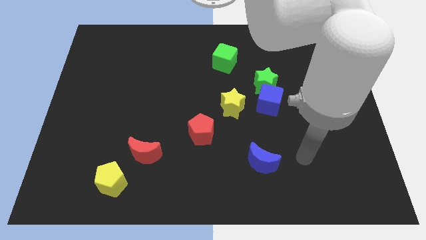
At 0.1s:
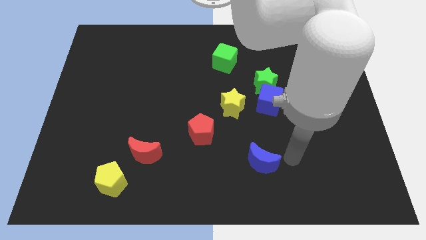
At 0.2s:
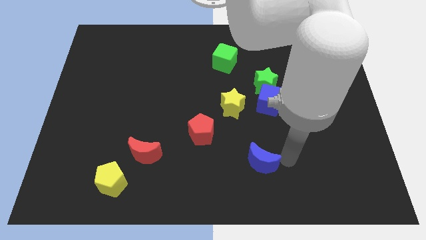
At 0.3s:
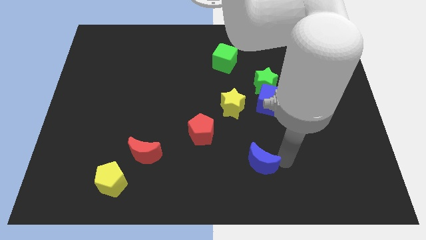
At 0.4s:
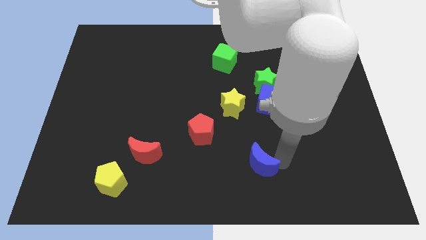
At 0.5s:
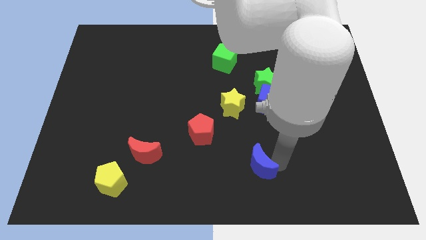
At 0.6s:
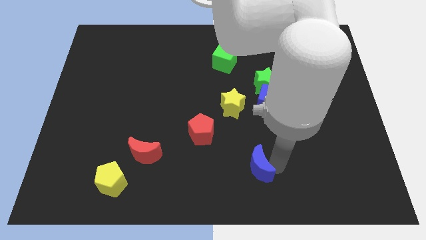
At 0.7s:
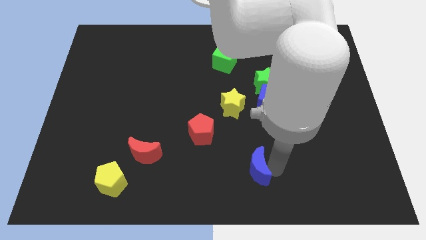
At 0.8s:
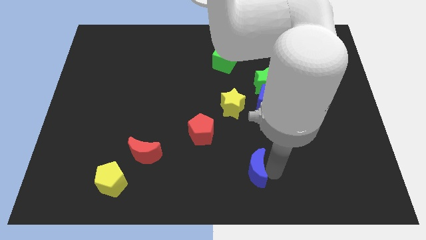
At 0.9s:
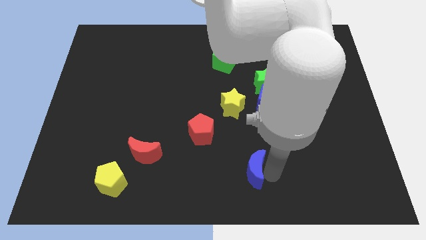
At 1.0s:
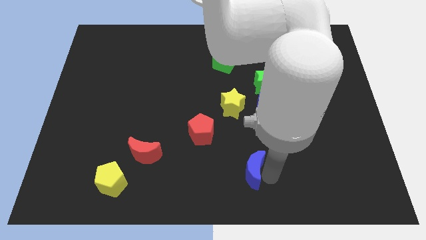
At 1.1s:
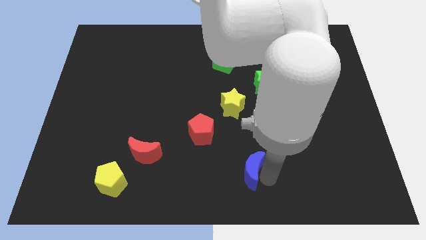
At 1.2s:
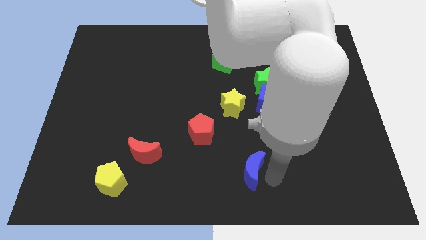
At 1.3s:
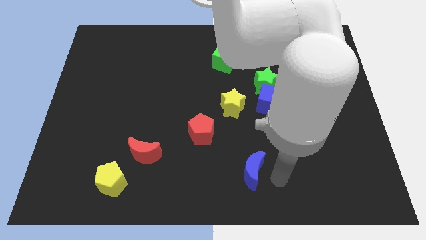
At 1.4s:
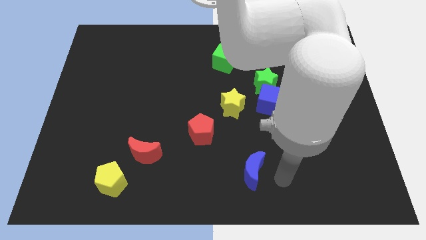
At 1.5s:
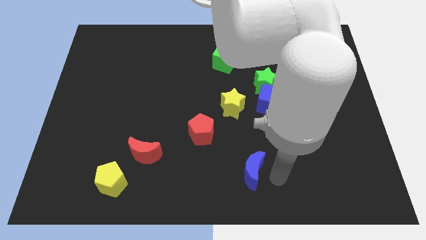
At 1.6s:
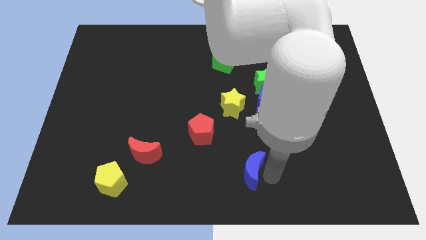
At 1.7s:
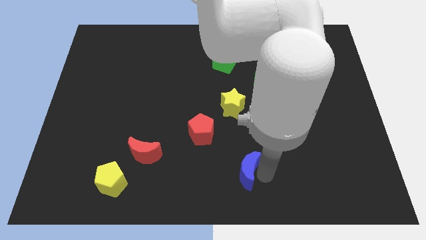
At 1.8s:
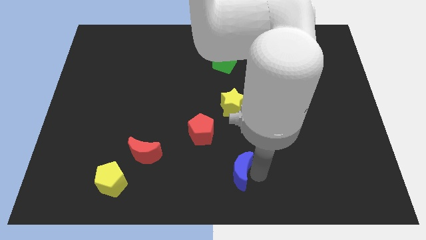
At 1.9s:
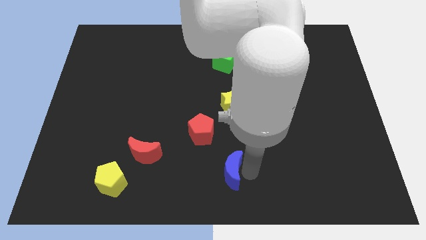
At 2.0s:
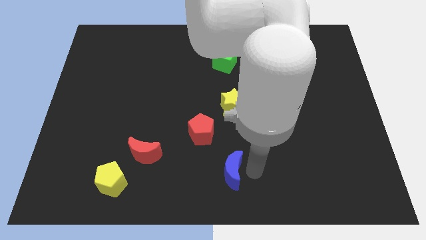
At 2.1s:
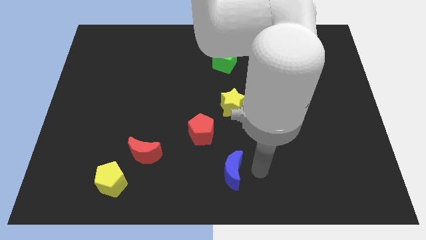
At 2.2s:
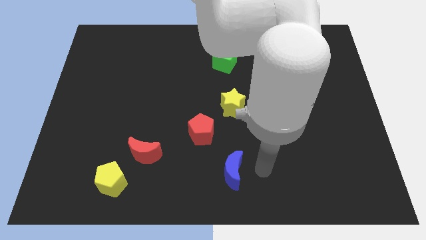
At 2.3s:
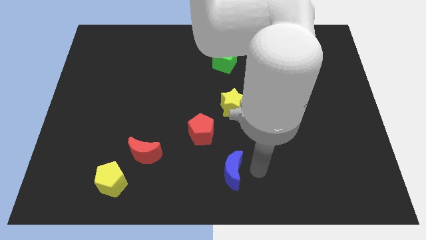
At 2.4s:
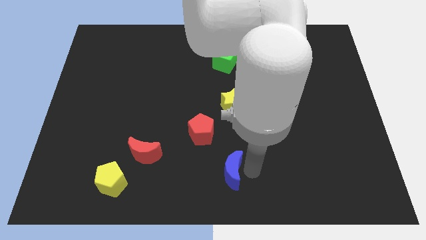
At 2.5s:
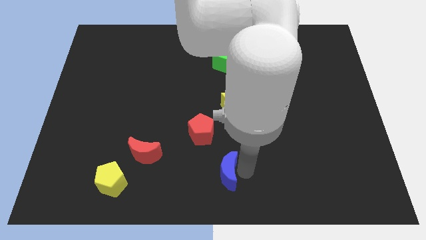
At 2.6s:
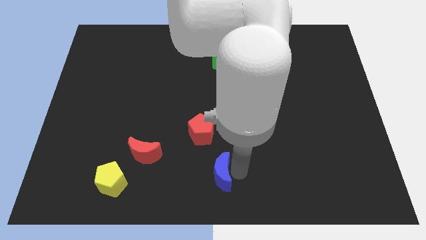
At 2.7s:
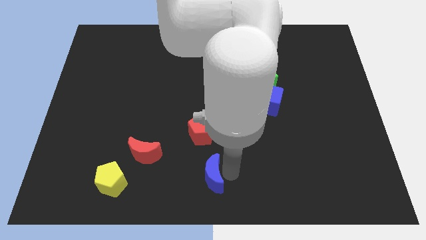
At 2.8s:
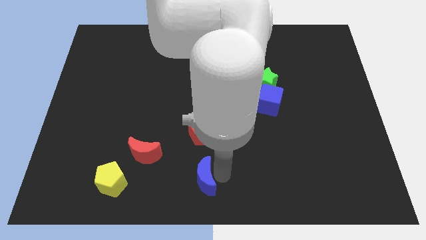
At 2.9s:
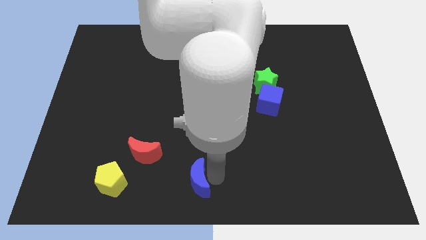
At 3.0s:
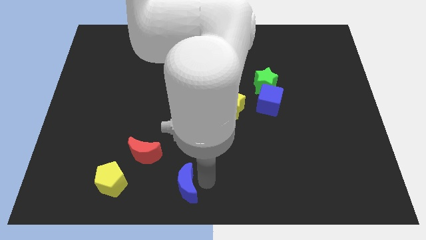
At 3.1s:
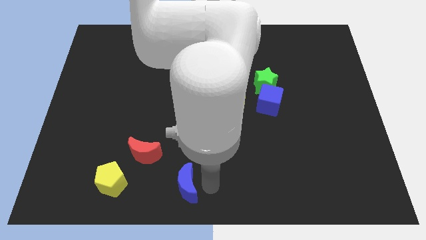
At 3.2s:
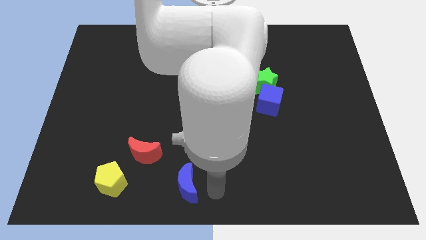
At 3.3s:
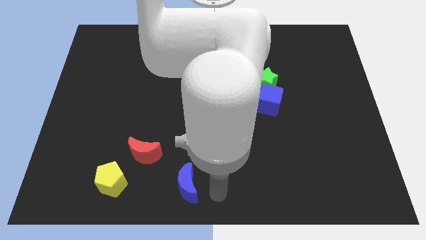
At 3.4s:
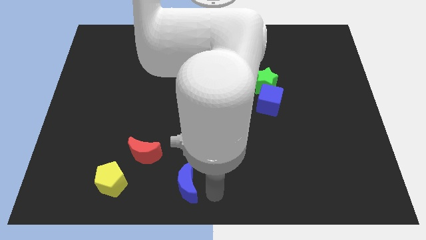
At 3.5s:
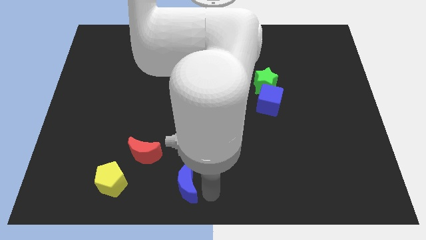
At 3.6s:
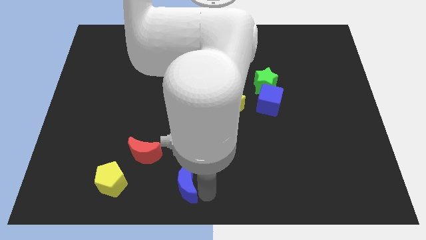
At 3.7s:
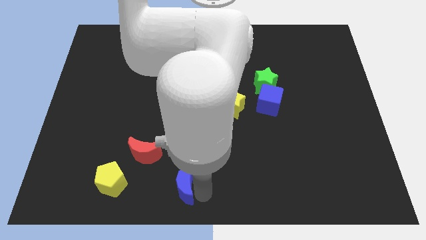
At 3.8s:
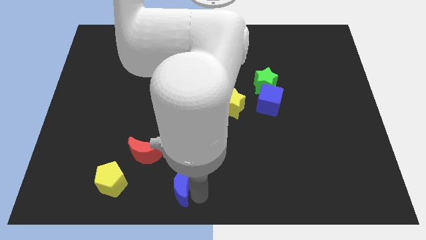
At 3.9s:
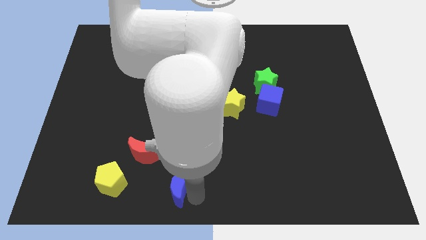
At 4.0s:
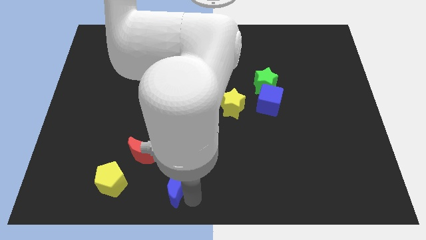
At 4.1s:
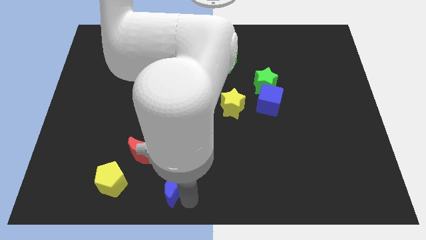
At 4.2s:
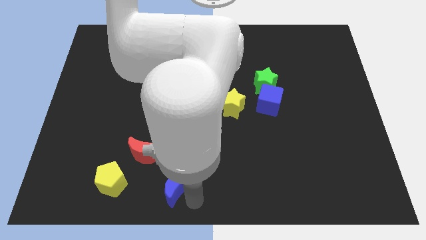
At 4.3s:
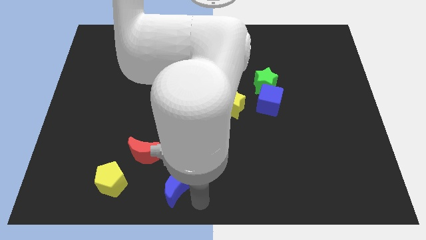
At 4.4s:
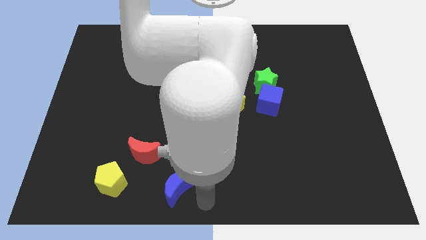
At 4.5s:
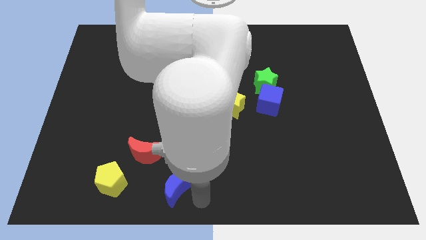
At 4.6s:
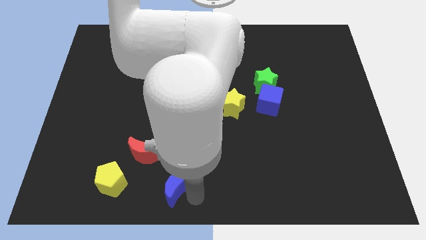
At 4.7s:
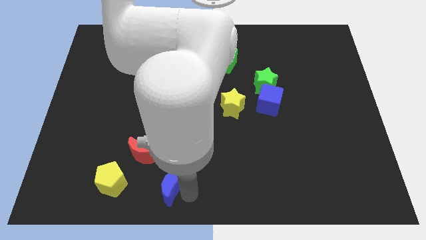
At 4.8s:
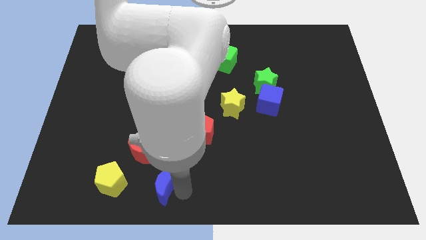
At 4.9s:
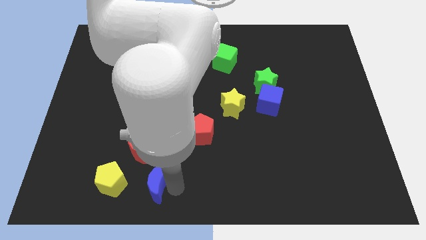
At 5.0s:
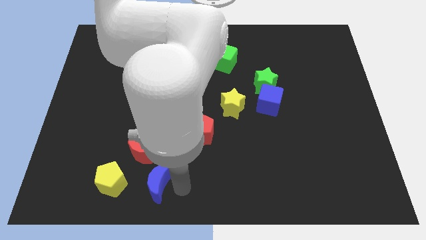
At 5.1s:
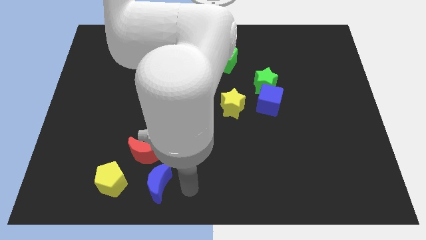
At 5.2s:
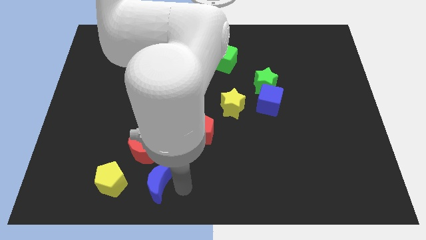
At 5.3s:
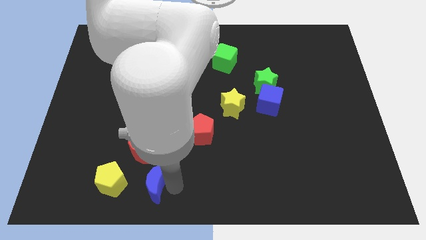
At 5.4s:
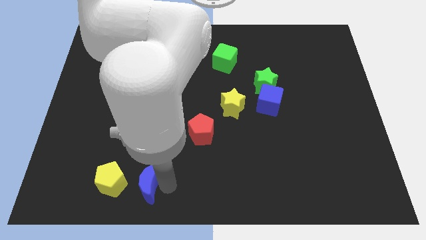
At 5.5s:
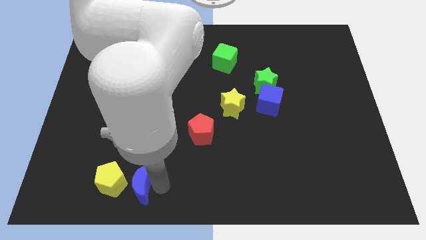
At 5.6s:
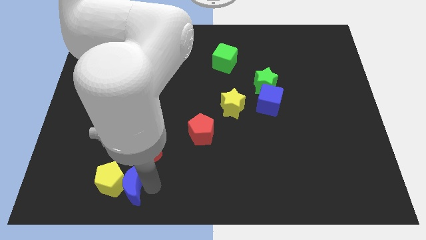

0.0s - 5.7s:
slide the blue moon next to the yellow pentagon

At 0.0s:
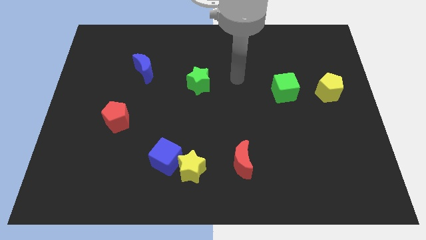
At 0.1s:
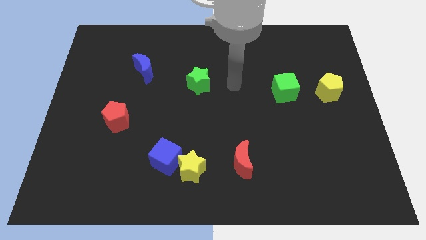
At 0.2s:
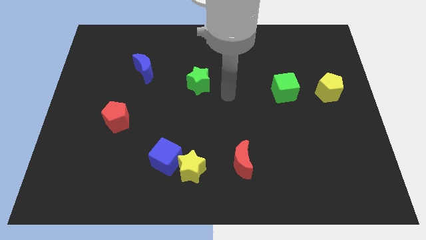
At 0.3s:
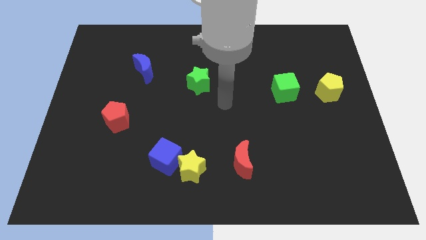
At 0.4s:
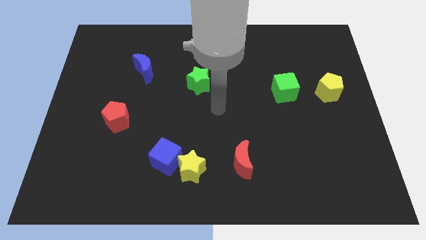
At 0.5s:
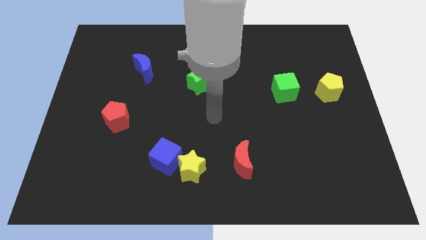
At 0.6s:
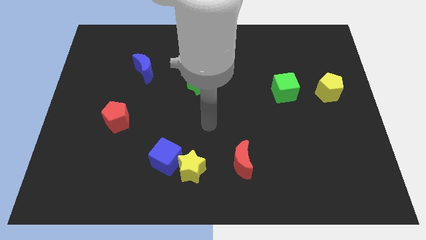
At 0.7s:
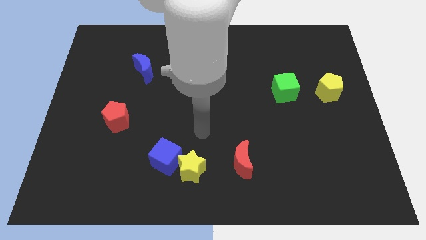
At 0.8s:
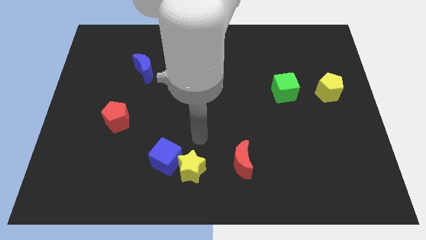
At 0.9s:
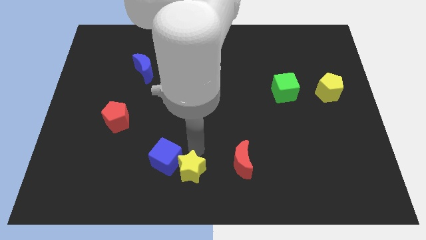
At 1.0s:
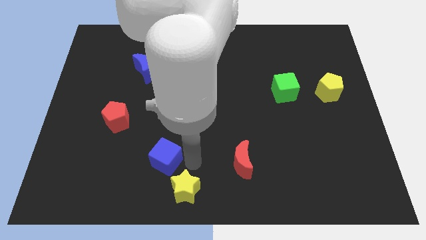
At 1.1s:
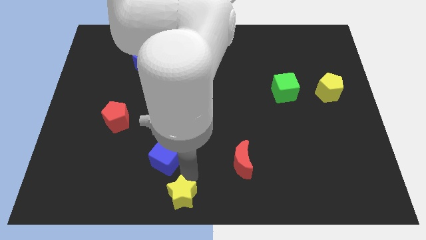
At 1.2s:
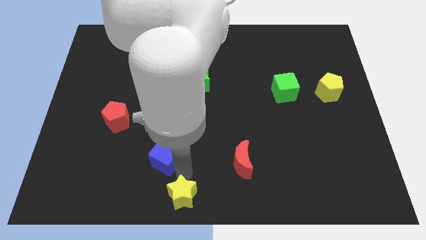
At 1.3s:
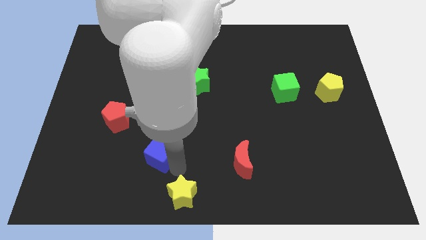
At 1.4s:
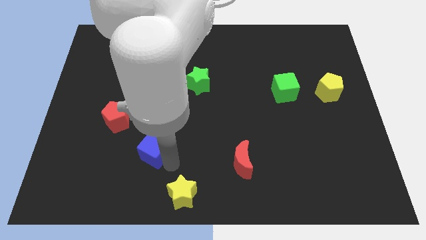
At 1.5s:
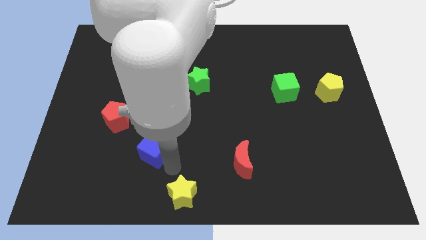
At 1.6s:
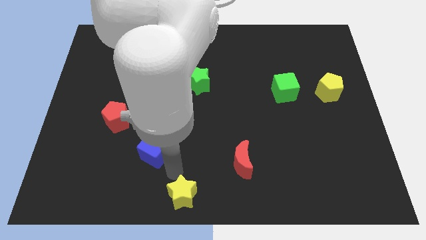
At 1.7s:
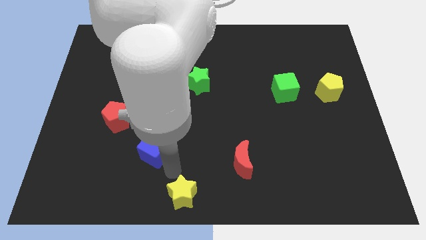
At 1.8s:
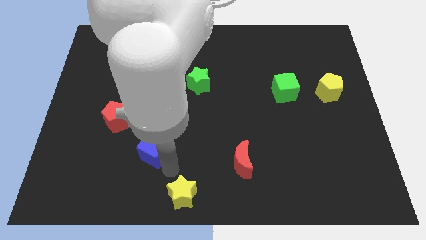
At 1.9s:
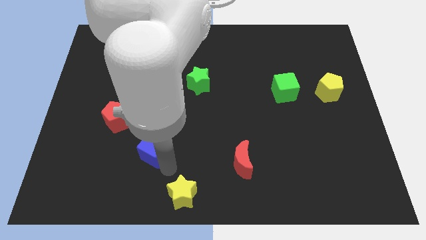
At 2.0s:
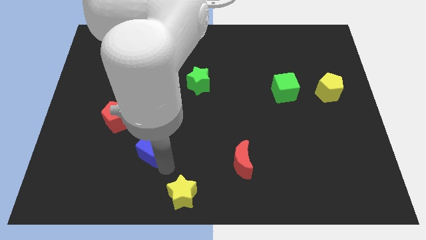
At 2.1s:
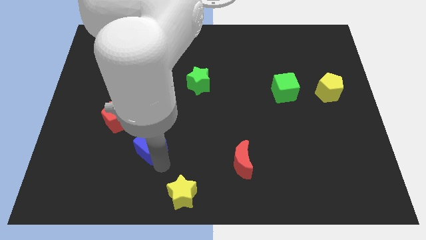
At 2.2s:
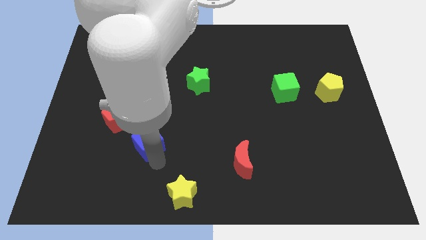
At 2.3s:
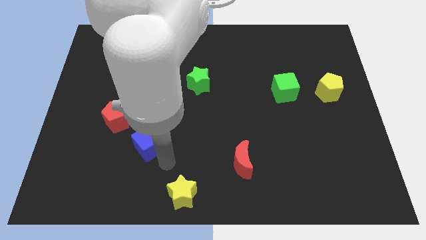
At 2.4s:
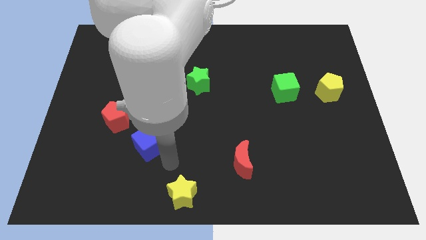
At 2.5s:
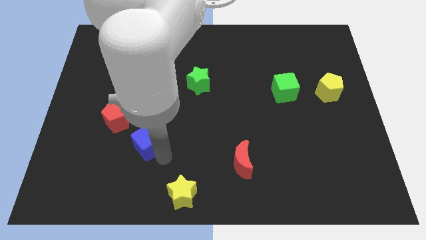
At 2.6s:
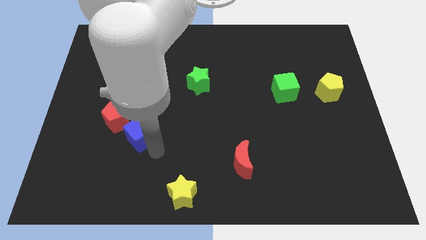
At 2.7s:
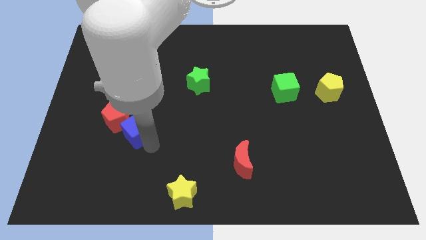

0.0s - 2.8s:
push the blue cube towards the red pentagon
